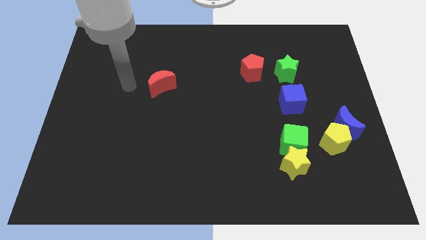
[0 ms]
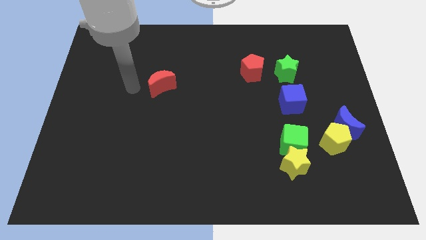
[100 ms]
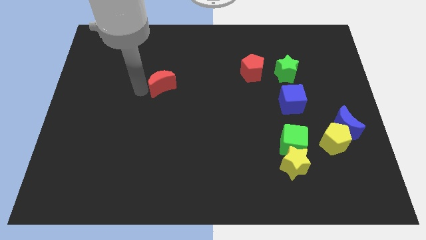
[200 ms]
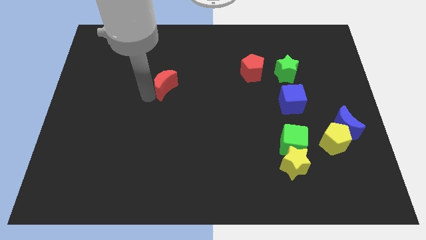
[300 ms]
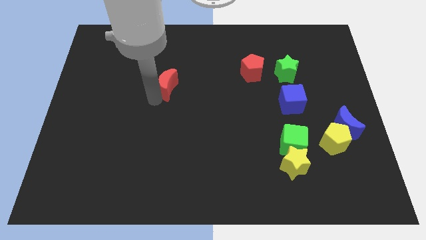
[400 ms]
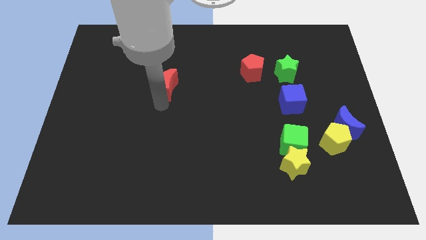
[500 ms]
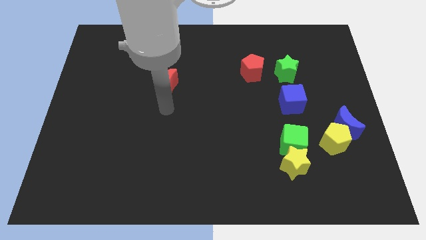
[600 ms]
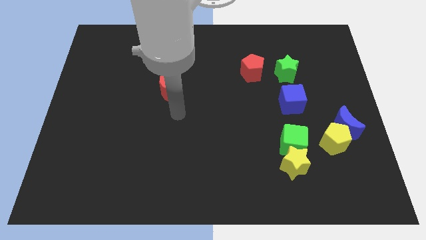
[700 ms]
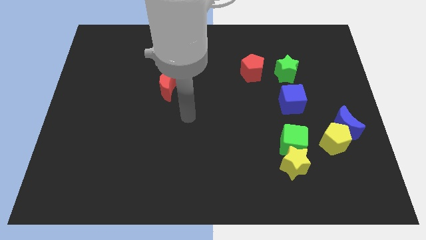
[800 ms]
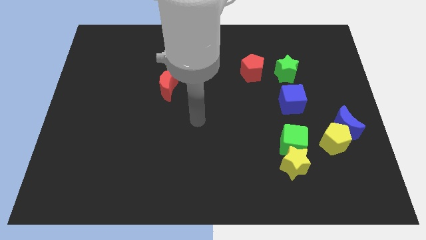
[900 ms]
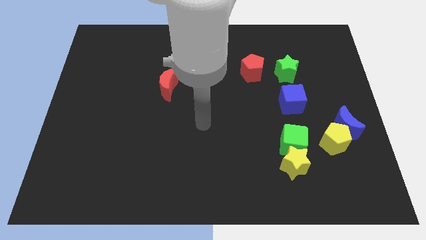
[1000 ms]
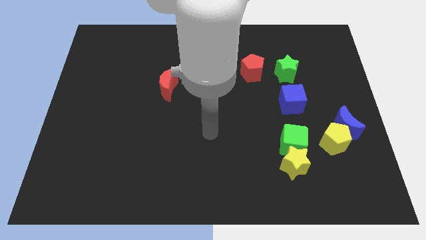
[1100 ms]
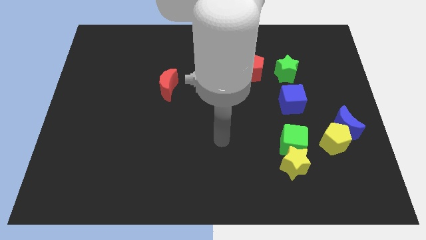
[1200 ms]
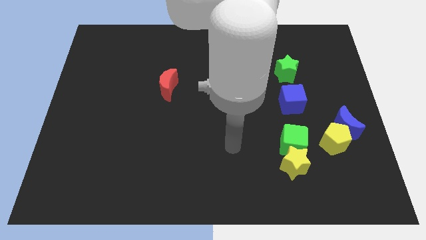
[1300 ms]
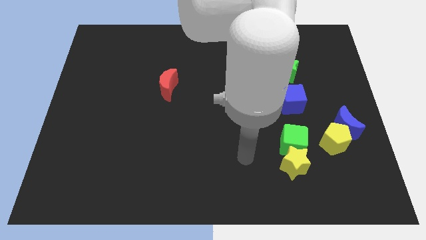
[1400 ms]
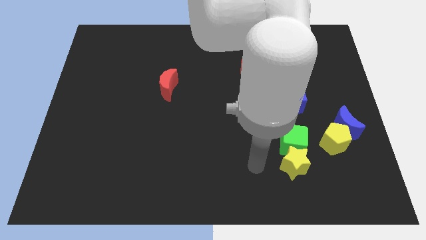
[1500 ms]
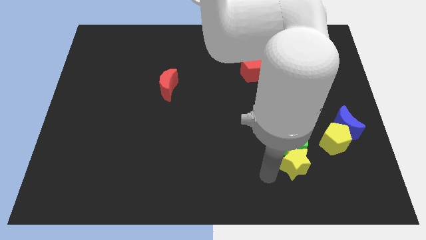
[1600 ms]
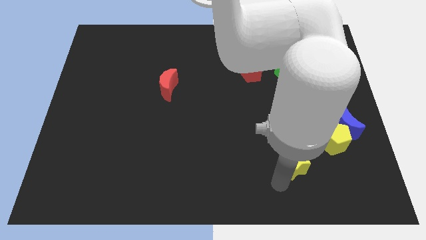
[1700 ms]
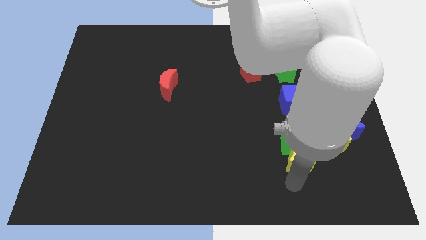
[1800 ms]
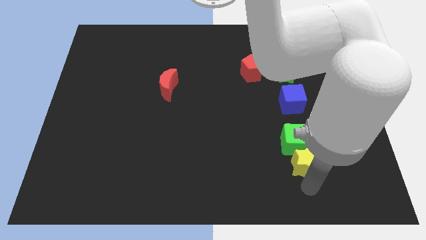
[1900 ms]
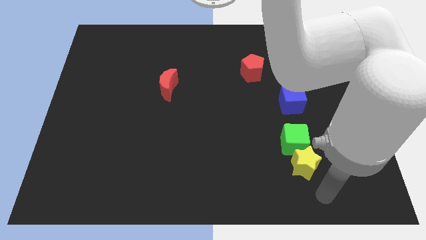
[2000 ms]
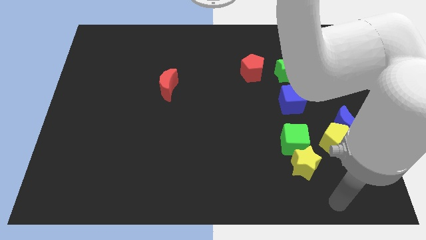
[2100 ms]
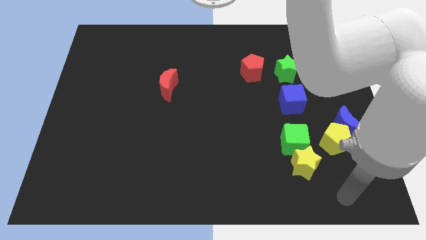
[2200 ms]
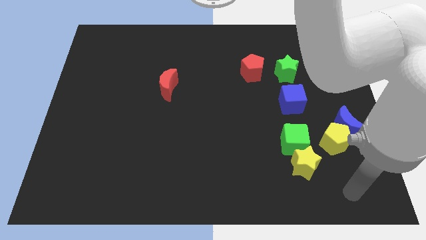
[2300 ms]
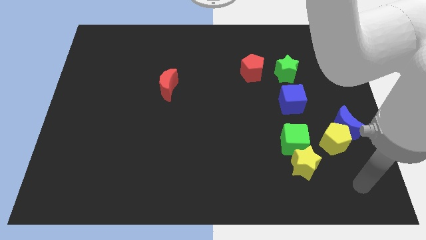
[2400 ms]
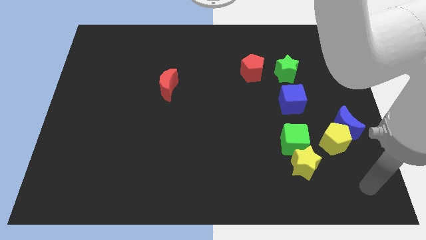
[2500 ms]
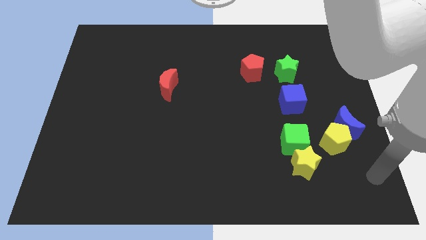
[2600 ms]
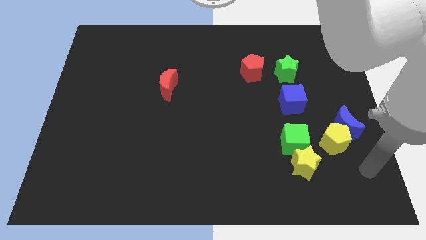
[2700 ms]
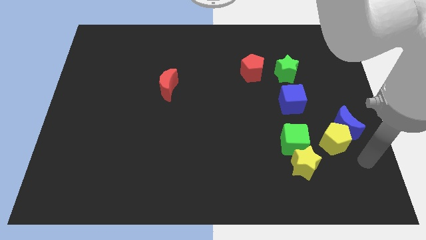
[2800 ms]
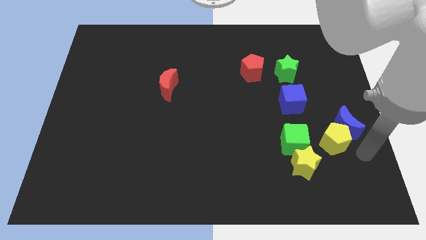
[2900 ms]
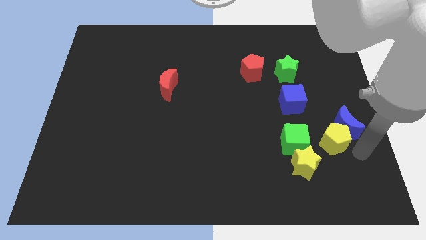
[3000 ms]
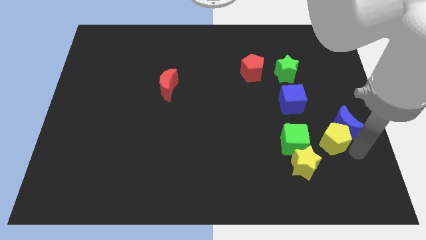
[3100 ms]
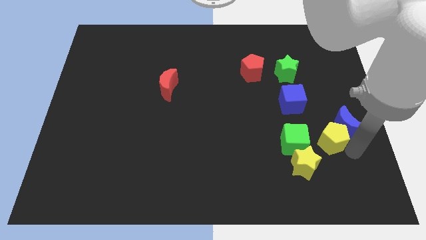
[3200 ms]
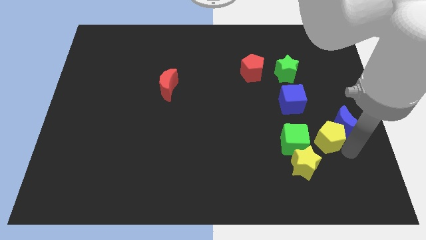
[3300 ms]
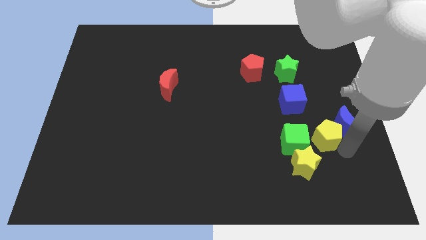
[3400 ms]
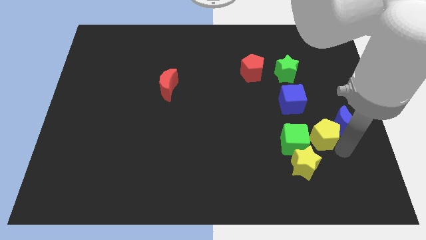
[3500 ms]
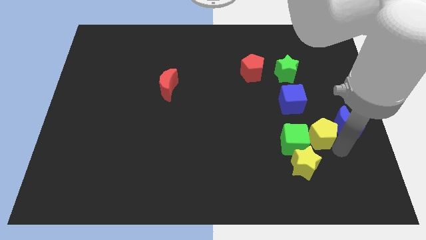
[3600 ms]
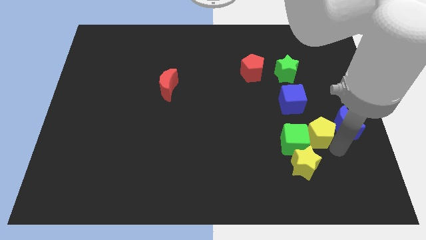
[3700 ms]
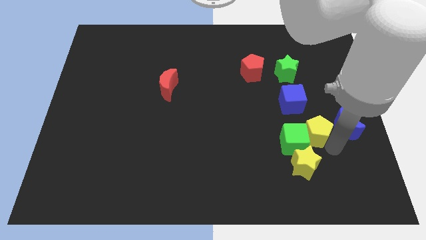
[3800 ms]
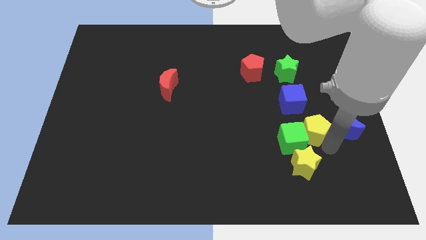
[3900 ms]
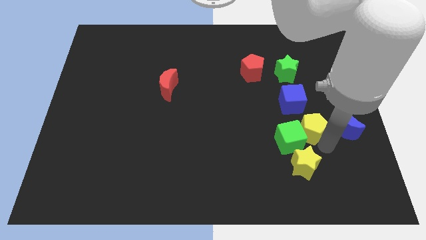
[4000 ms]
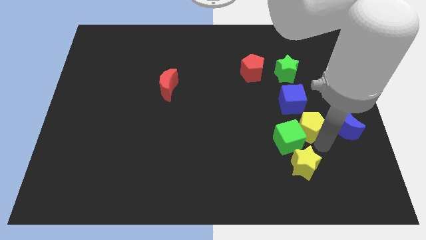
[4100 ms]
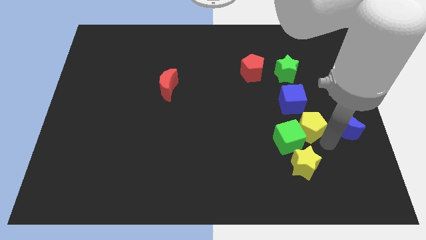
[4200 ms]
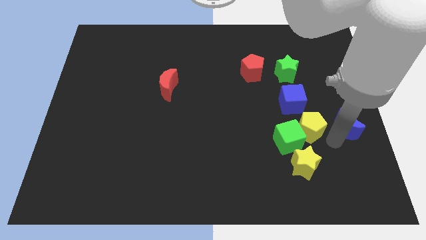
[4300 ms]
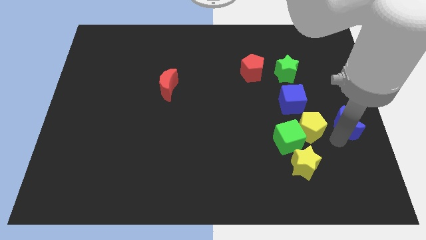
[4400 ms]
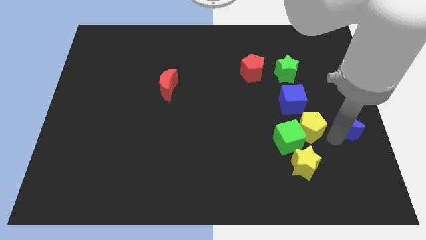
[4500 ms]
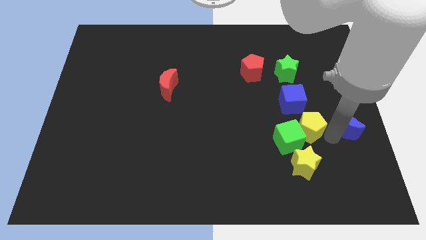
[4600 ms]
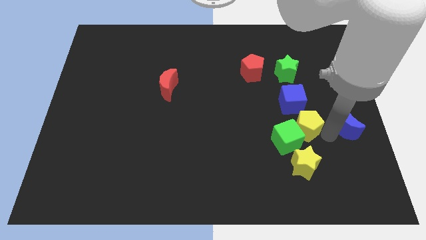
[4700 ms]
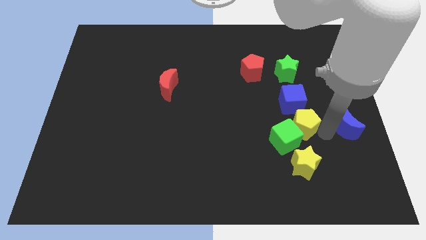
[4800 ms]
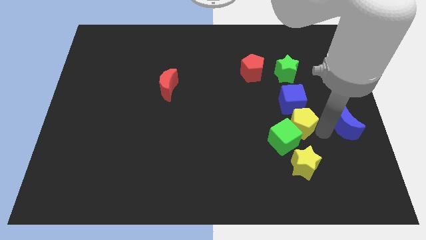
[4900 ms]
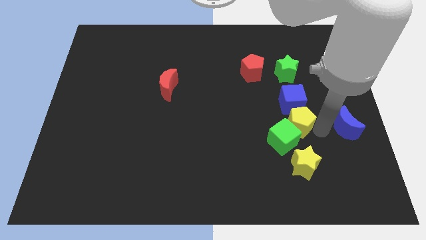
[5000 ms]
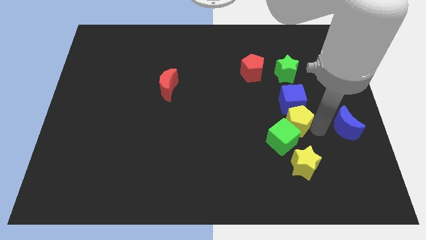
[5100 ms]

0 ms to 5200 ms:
push the yellow pentagon slightly to the left

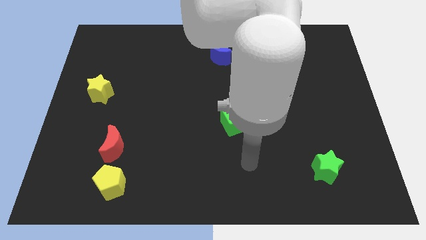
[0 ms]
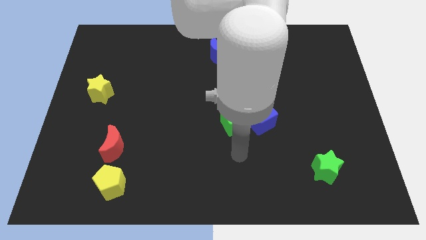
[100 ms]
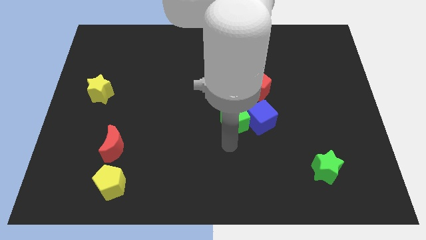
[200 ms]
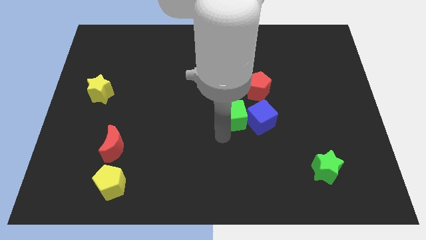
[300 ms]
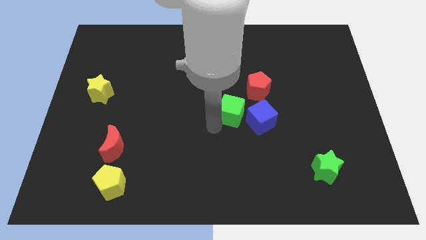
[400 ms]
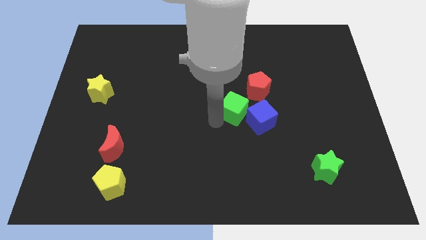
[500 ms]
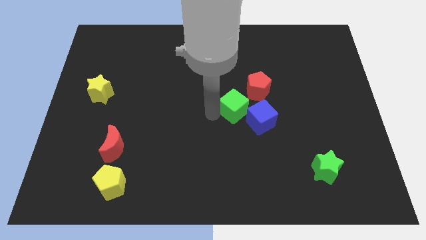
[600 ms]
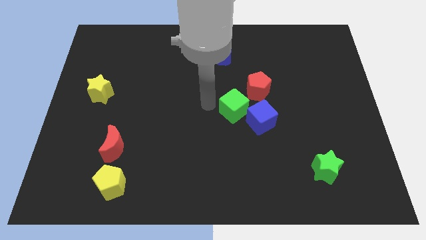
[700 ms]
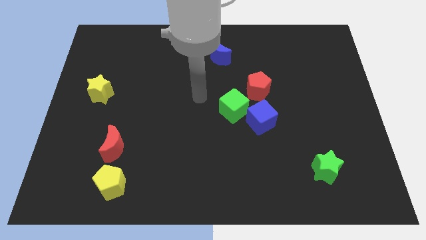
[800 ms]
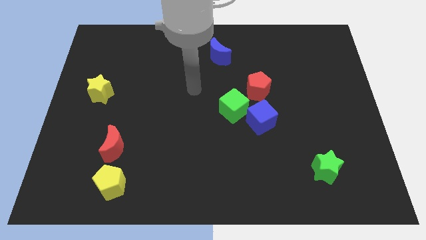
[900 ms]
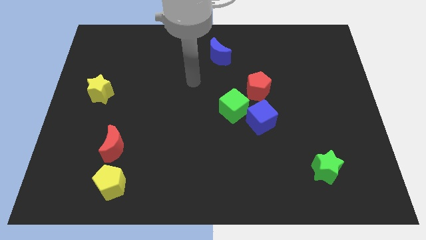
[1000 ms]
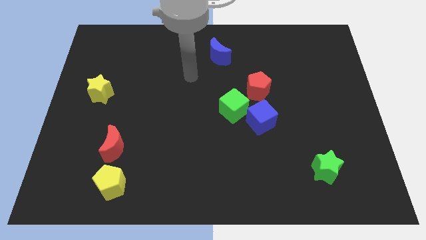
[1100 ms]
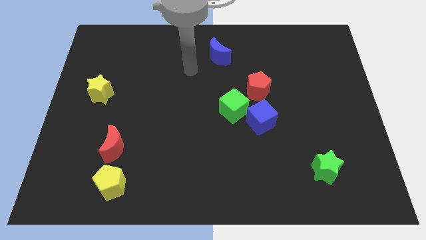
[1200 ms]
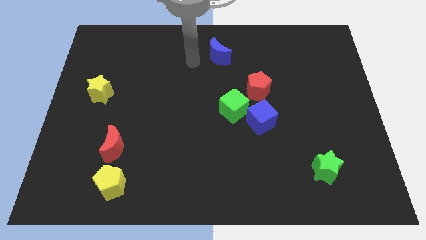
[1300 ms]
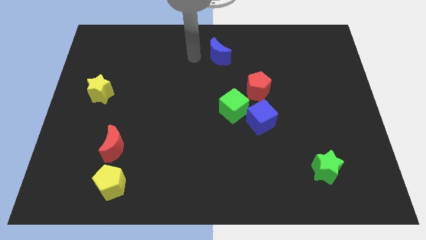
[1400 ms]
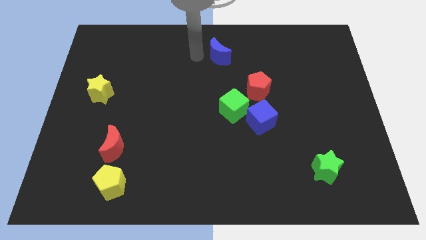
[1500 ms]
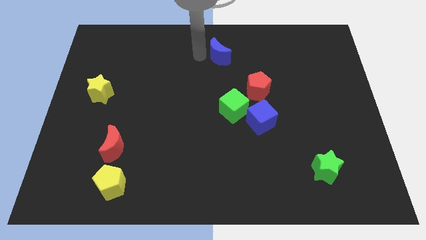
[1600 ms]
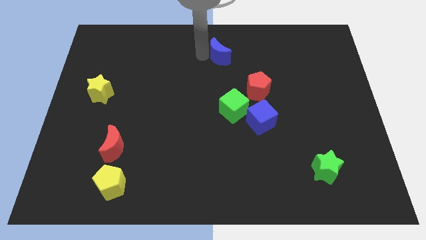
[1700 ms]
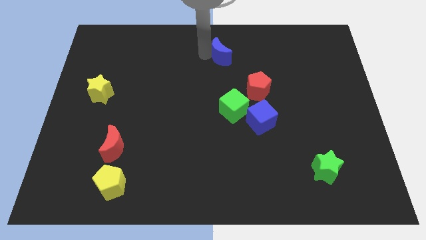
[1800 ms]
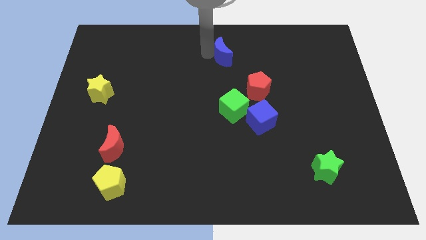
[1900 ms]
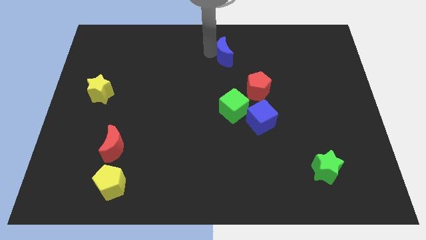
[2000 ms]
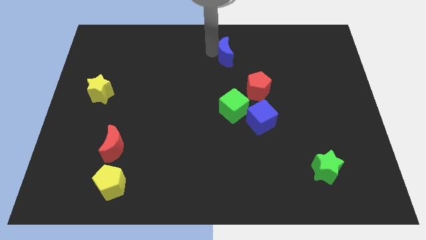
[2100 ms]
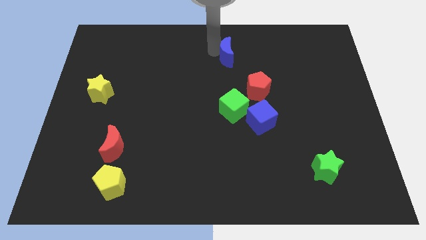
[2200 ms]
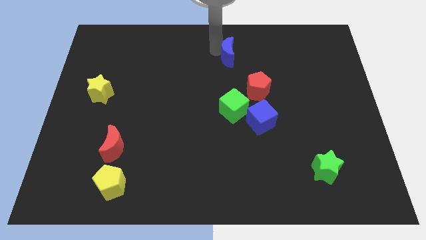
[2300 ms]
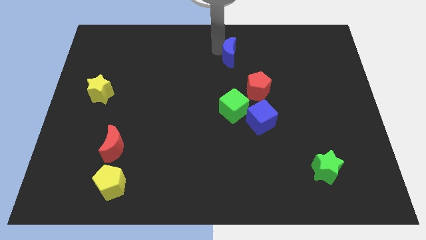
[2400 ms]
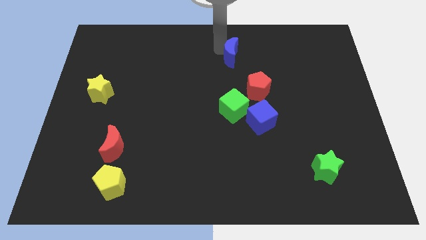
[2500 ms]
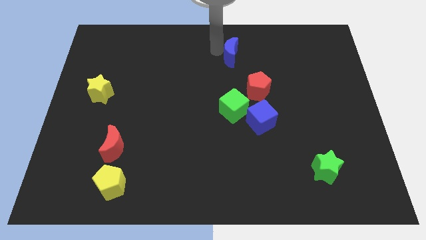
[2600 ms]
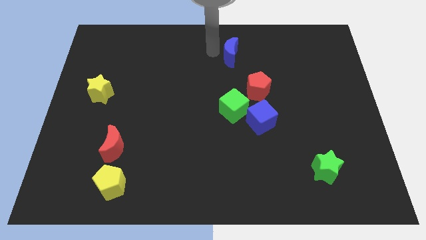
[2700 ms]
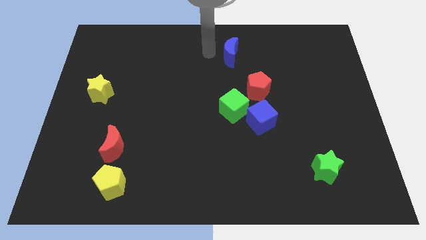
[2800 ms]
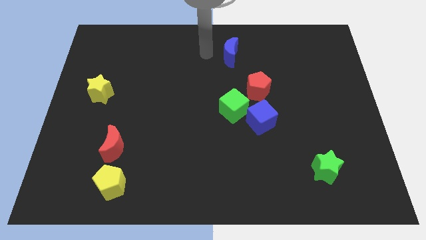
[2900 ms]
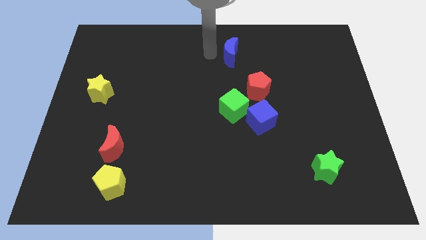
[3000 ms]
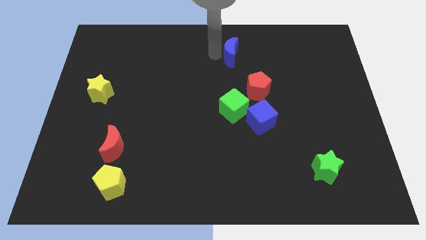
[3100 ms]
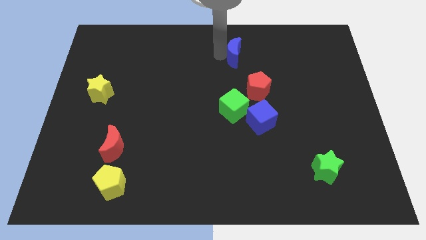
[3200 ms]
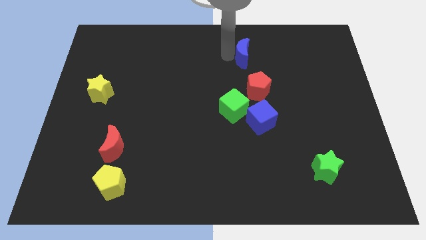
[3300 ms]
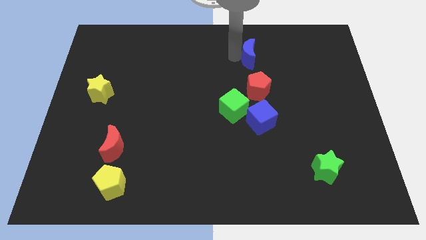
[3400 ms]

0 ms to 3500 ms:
move the blue moon a little bit right
